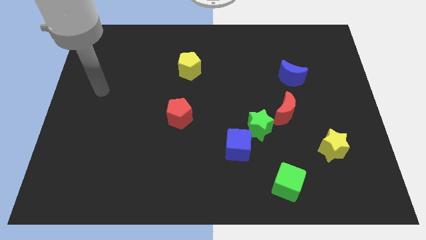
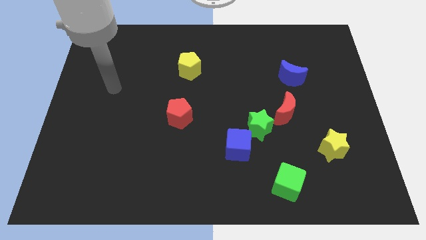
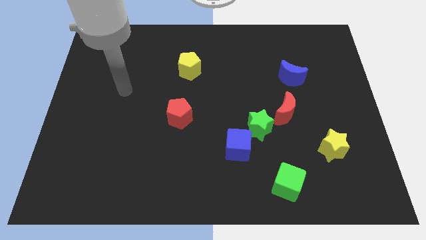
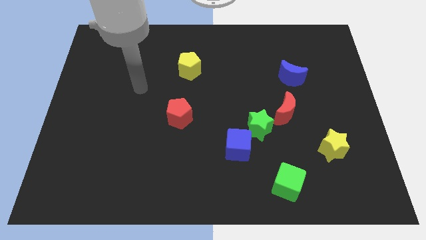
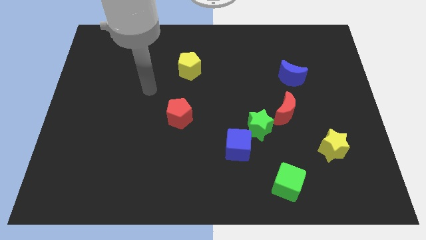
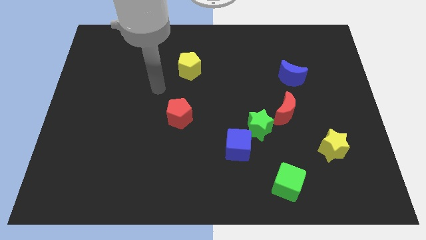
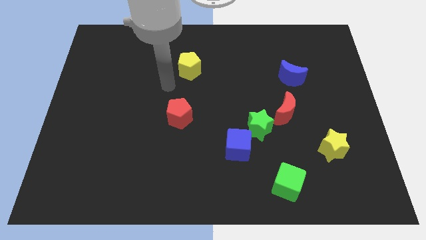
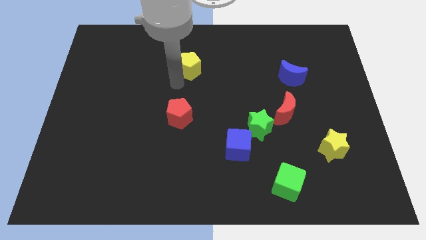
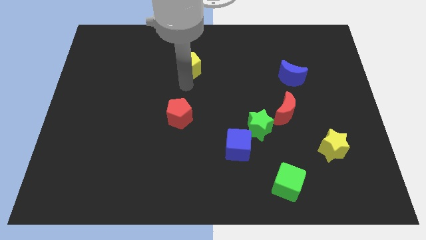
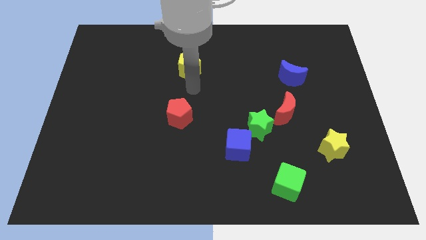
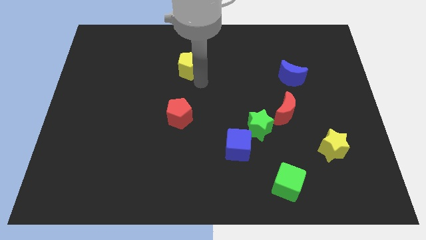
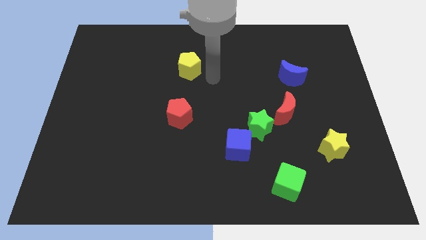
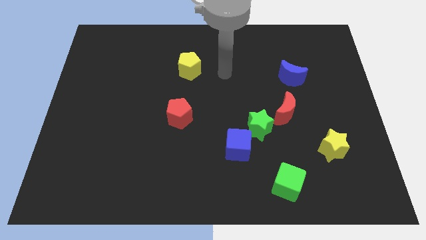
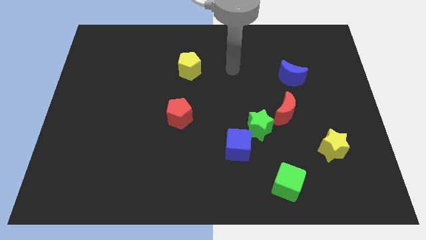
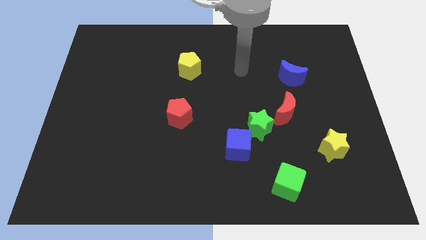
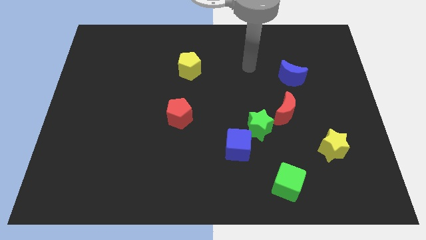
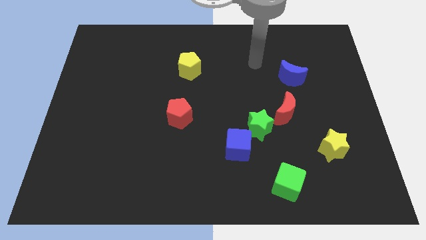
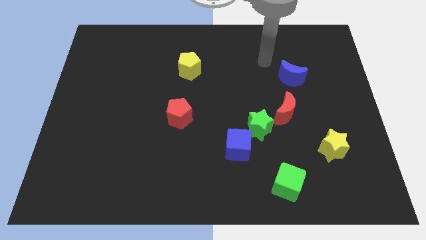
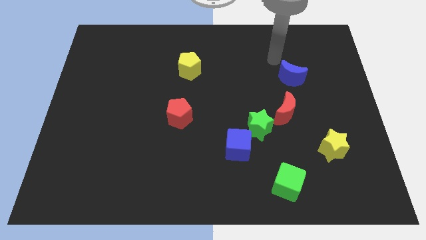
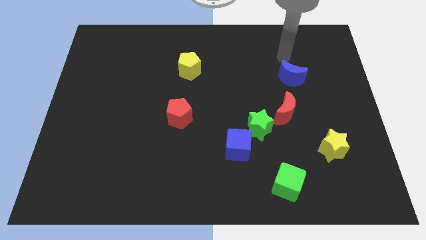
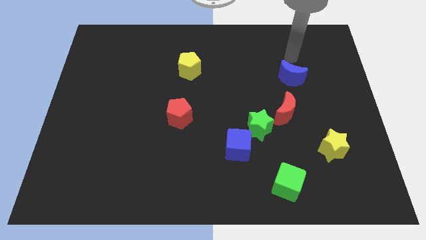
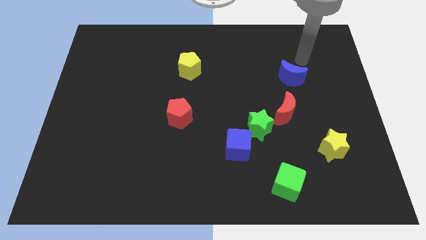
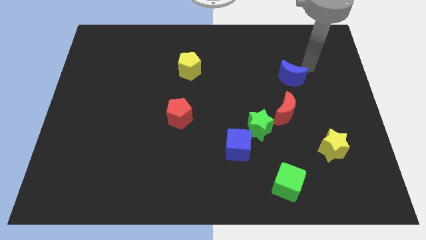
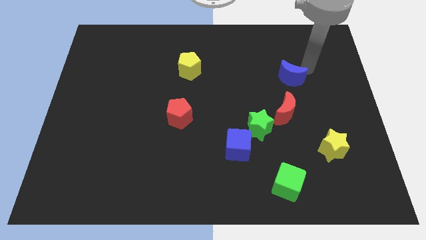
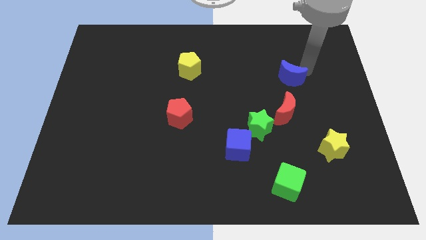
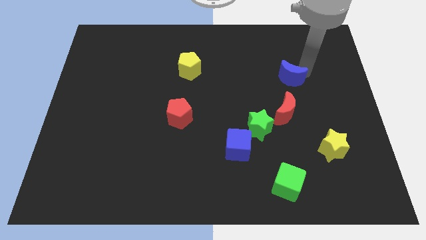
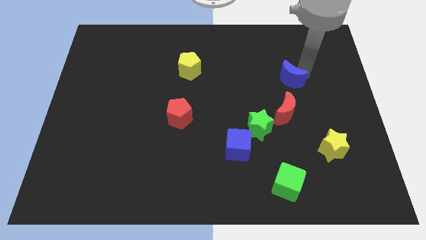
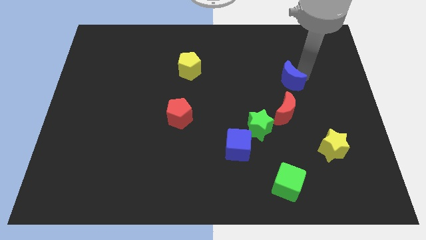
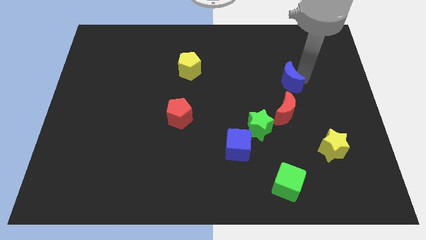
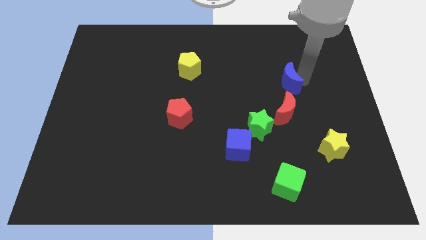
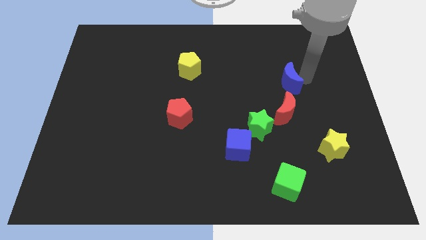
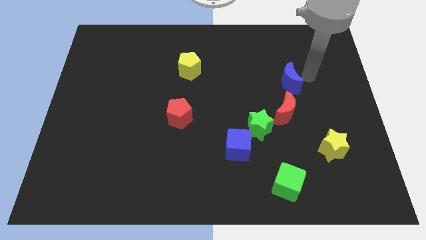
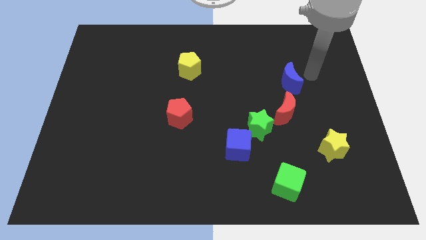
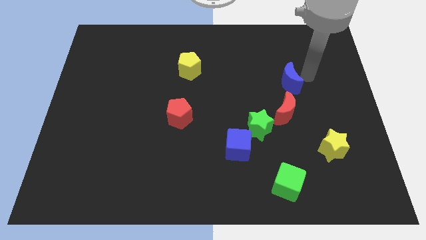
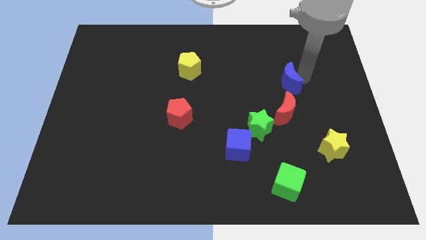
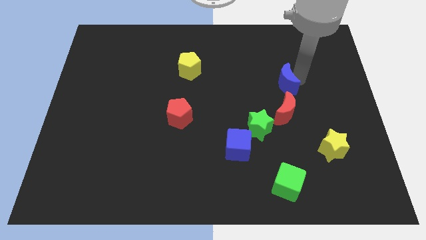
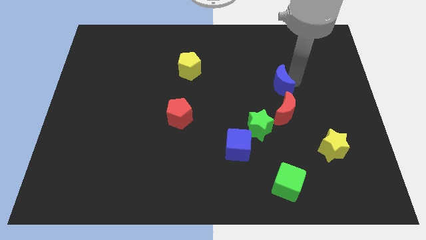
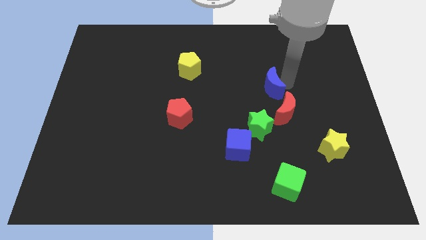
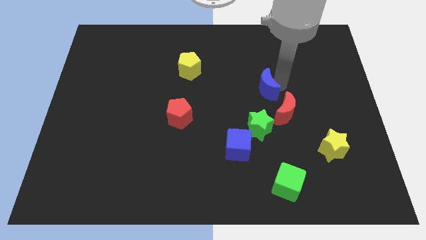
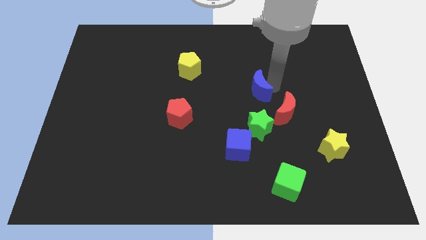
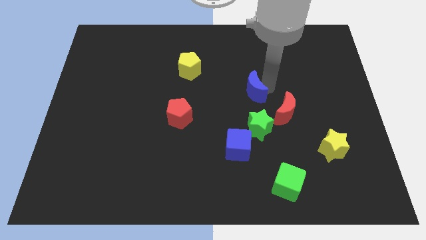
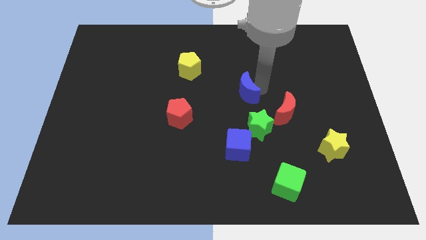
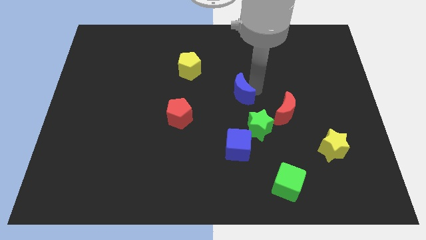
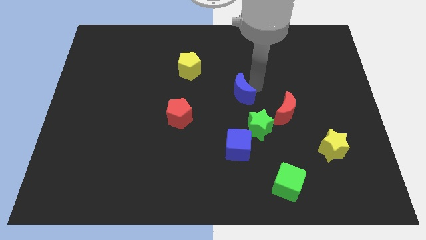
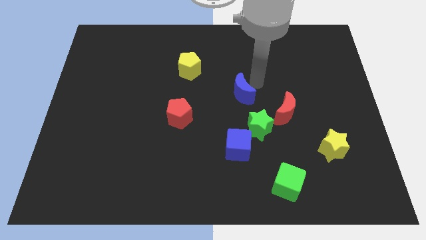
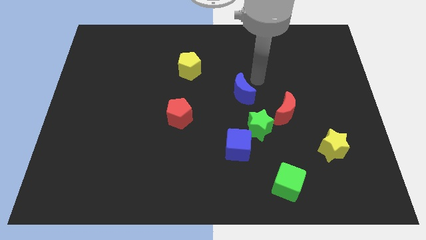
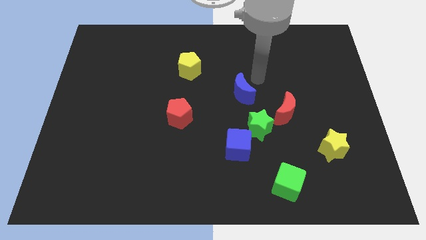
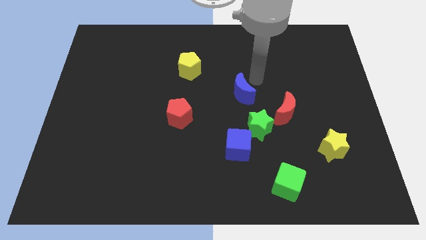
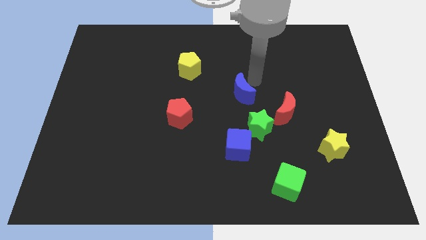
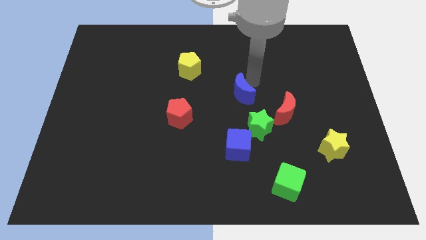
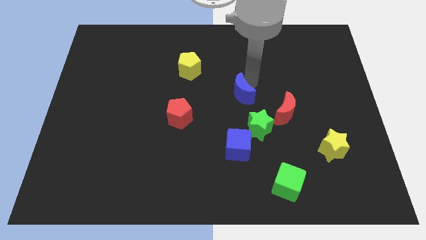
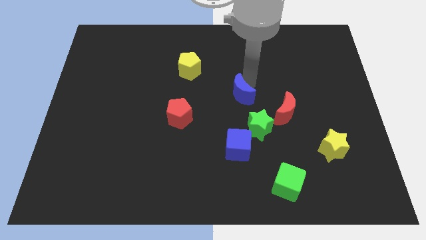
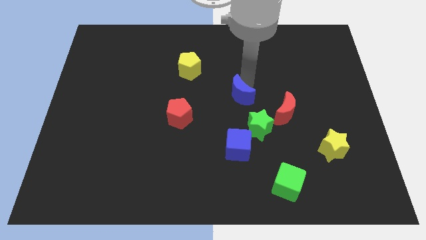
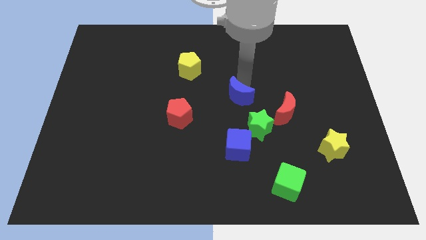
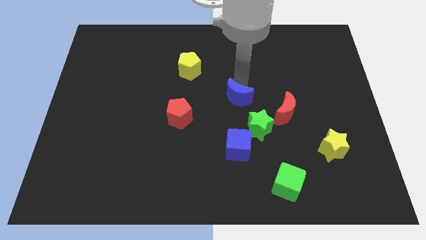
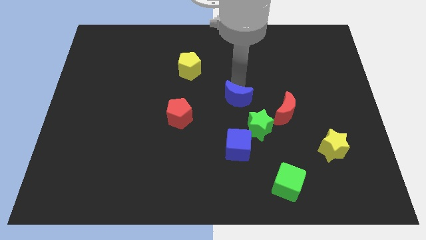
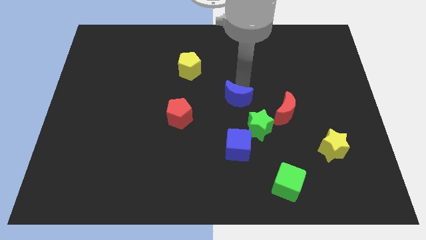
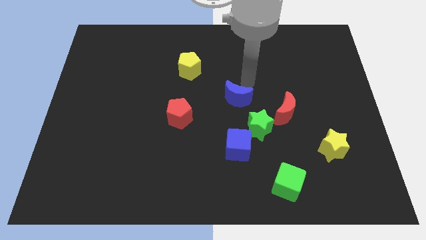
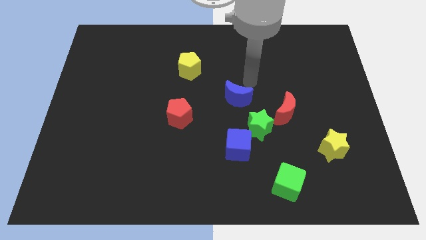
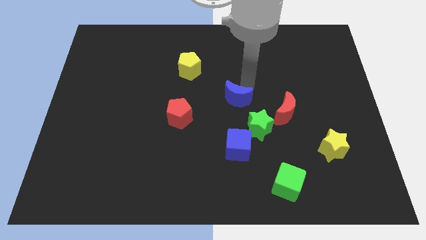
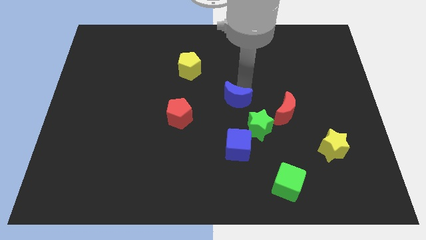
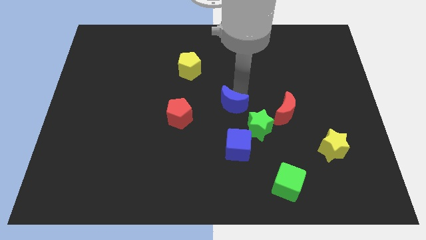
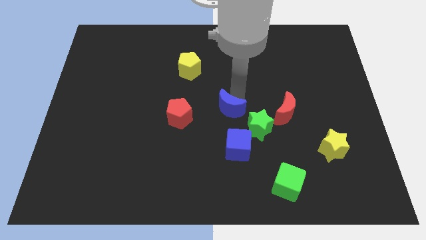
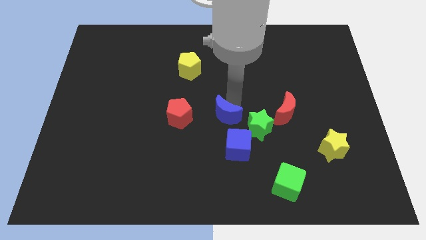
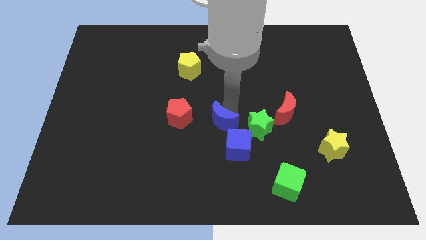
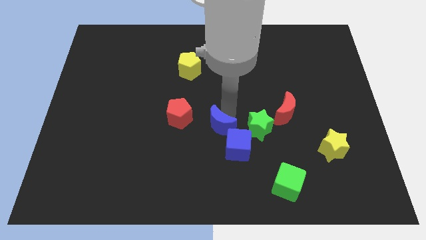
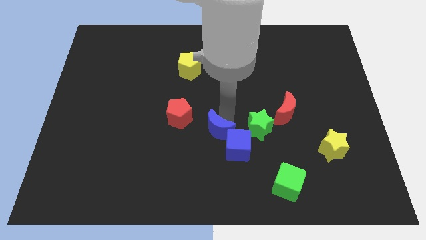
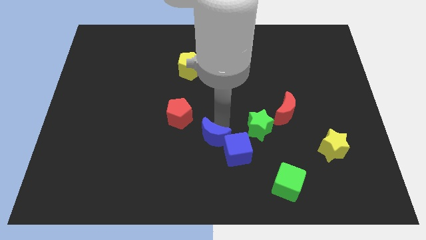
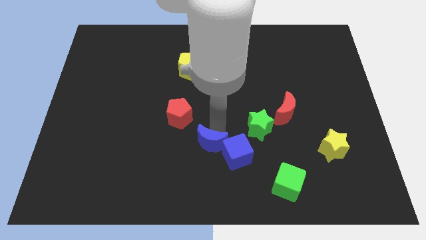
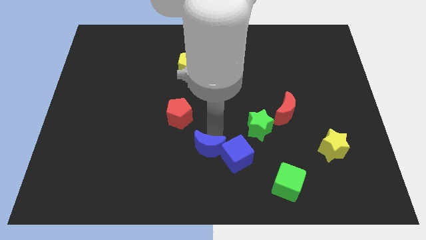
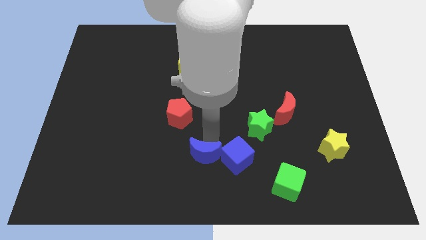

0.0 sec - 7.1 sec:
put the blue moon to the bottom

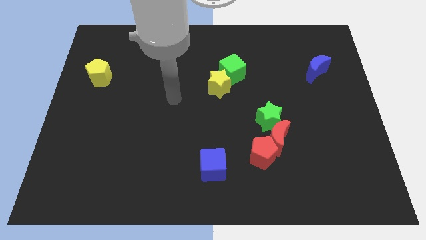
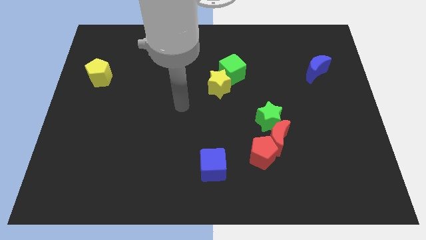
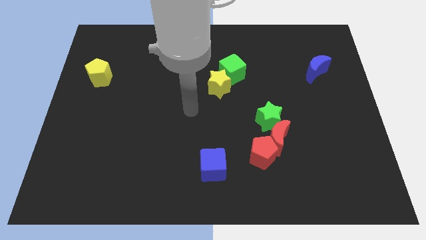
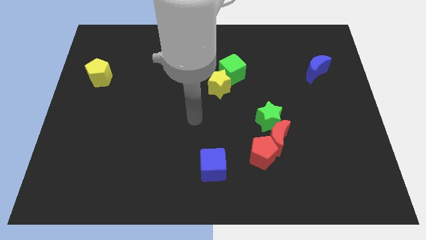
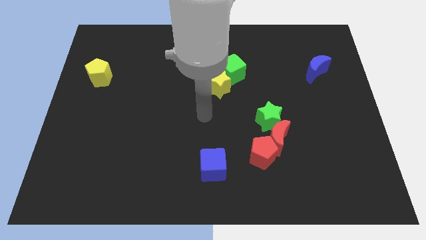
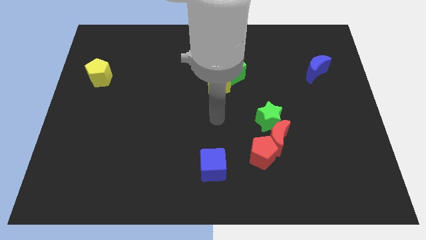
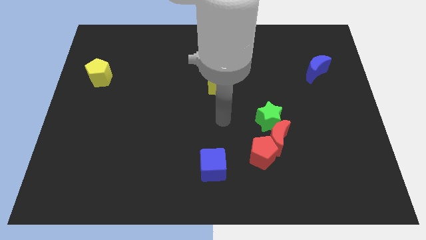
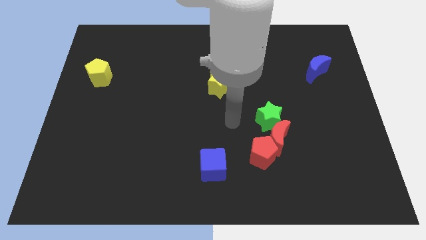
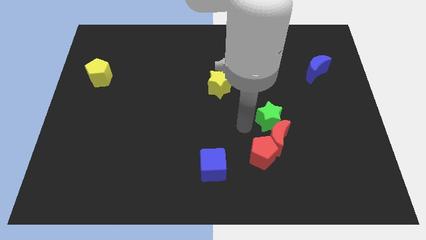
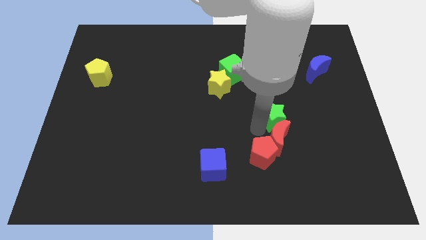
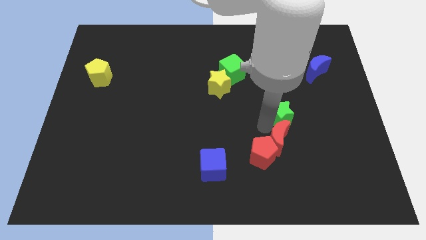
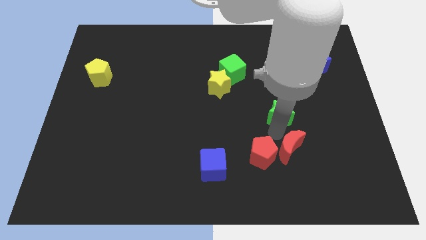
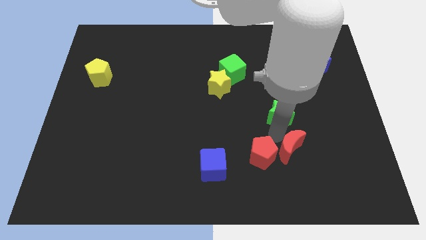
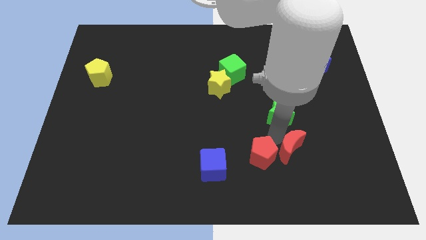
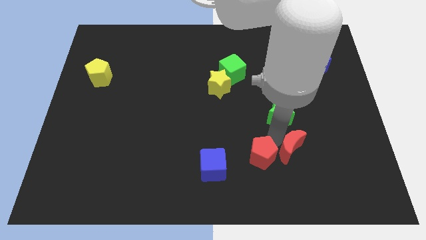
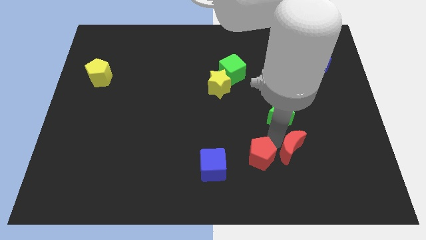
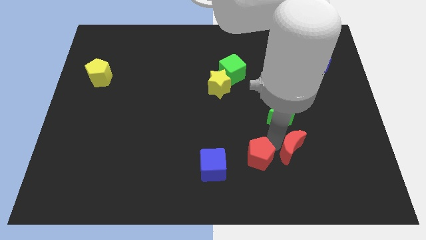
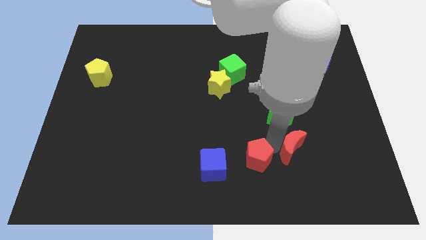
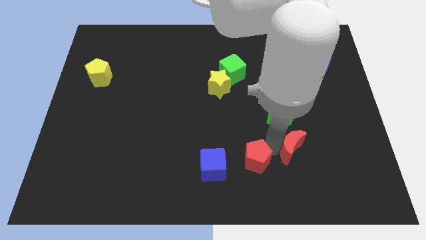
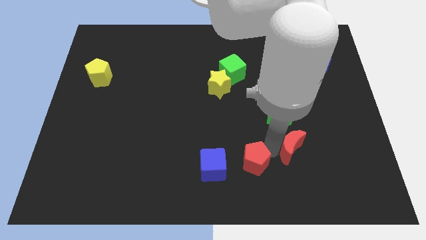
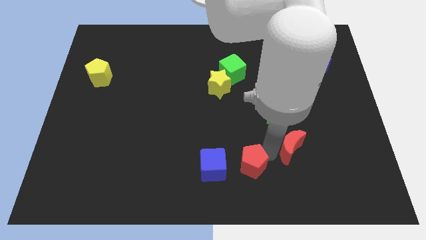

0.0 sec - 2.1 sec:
push the red pentagon to the bottom side
